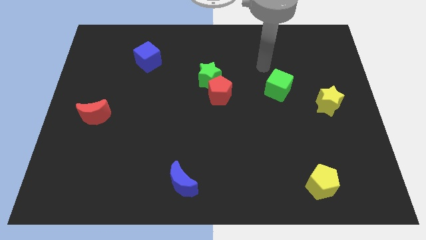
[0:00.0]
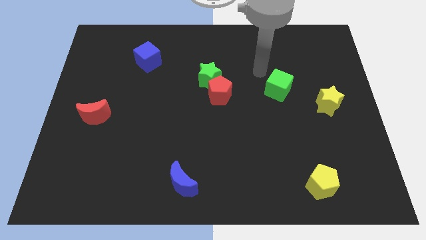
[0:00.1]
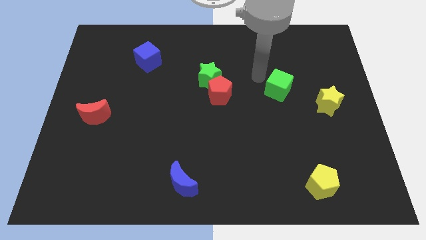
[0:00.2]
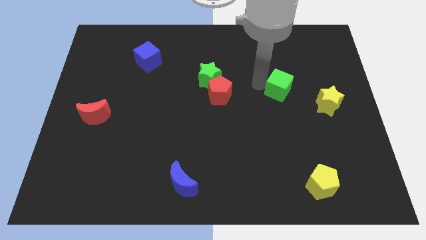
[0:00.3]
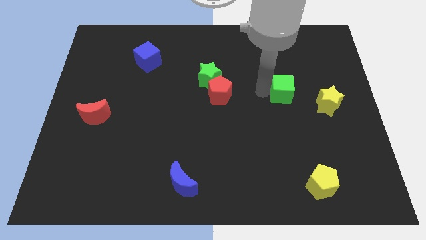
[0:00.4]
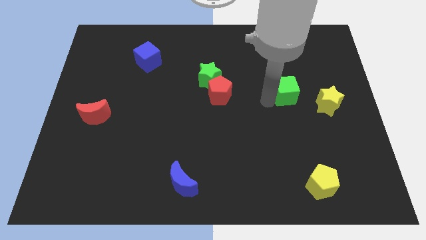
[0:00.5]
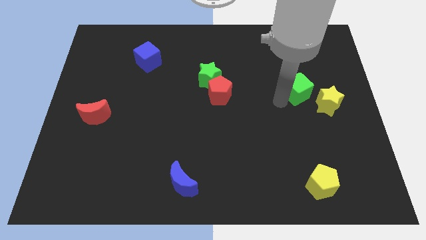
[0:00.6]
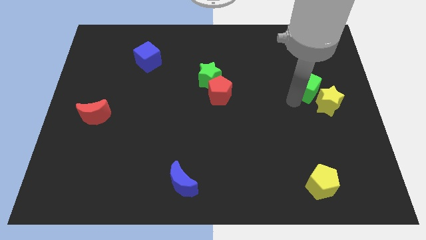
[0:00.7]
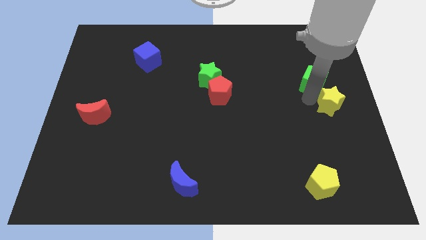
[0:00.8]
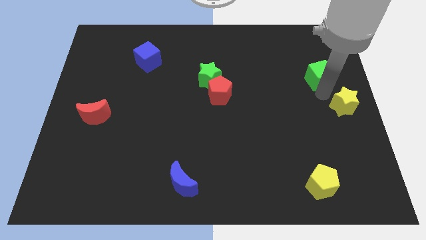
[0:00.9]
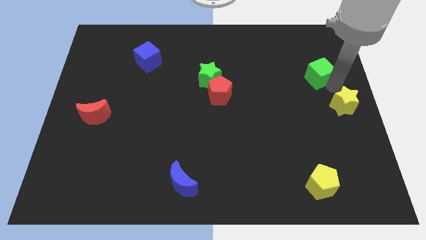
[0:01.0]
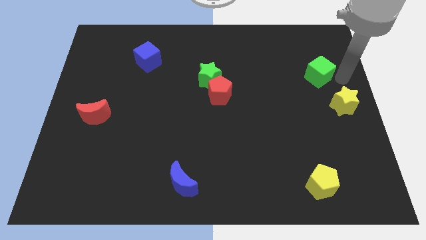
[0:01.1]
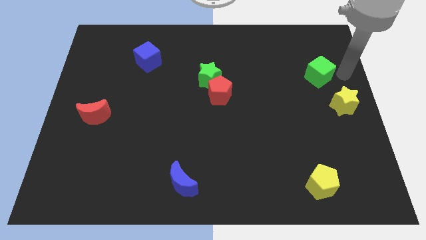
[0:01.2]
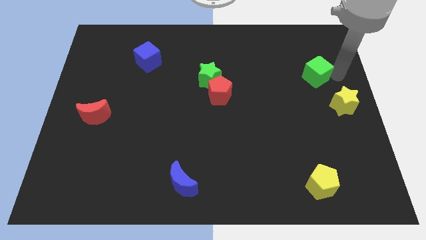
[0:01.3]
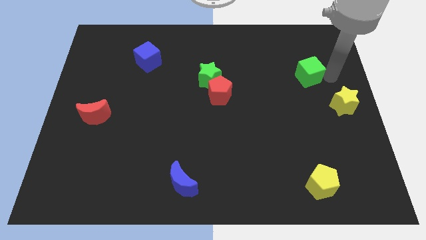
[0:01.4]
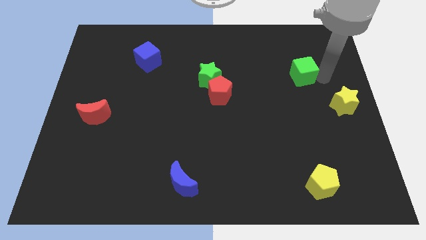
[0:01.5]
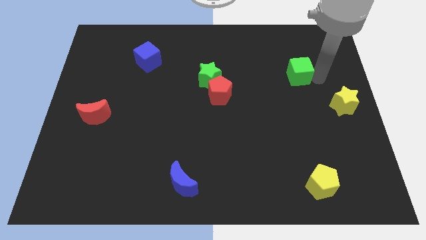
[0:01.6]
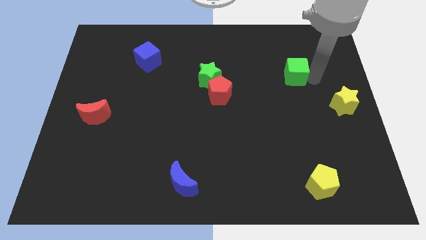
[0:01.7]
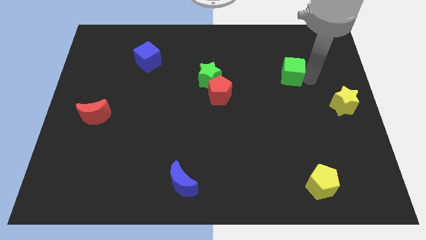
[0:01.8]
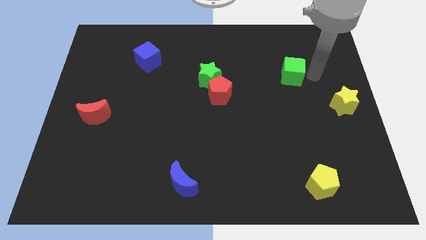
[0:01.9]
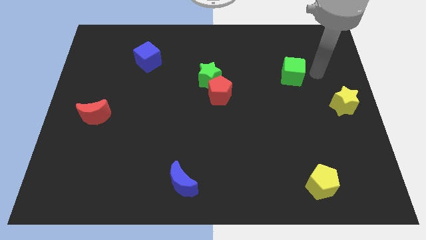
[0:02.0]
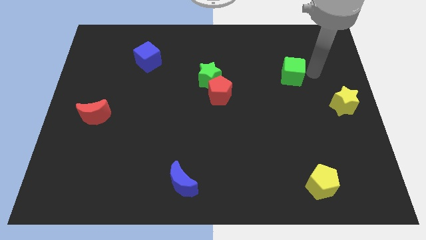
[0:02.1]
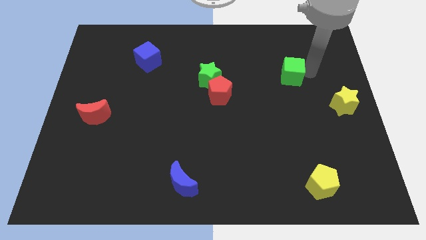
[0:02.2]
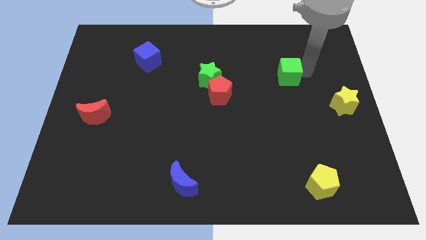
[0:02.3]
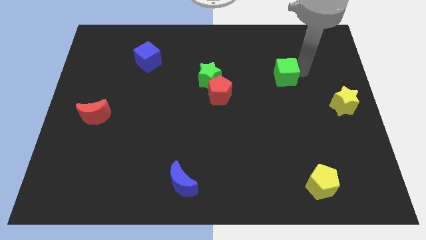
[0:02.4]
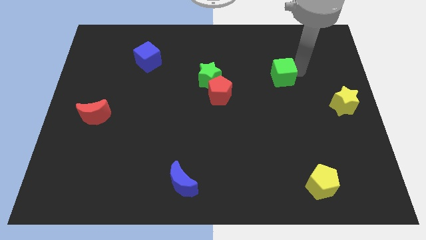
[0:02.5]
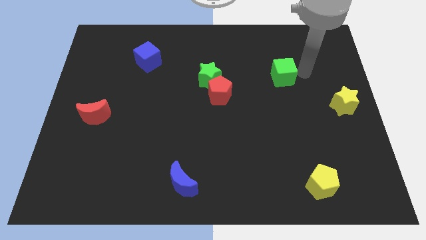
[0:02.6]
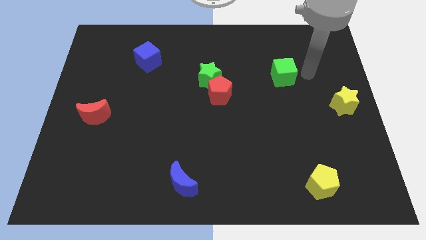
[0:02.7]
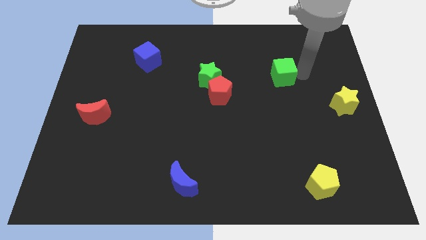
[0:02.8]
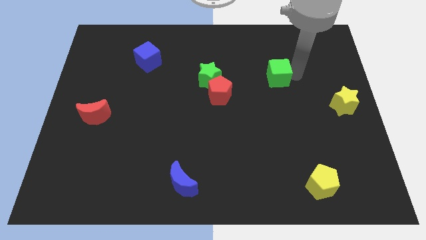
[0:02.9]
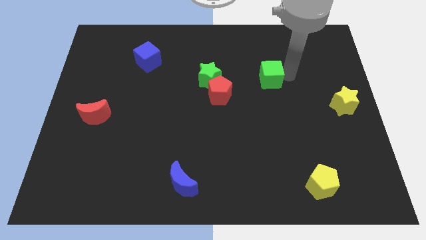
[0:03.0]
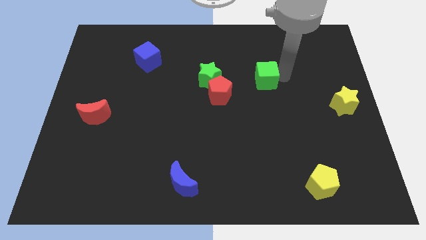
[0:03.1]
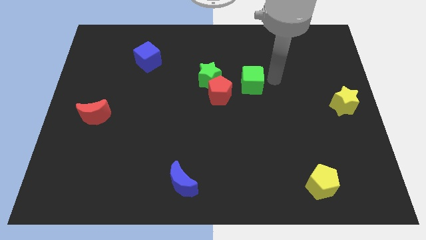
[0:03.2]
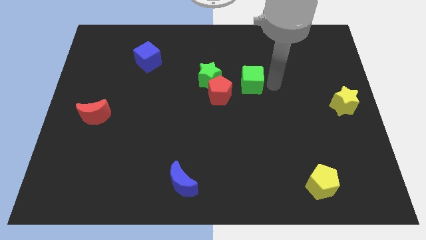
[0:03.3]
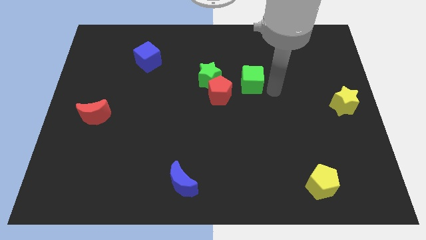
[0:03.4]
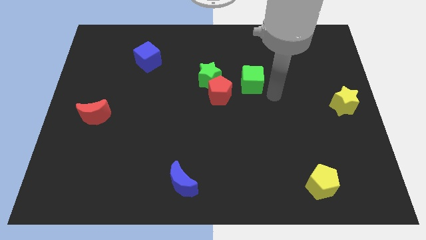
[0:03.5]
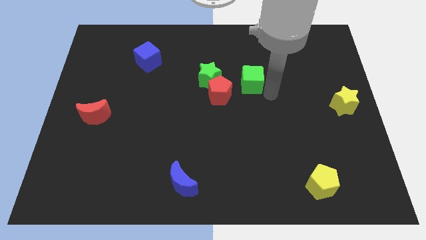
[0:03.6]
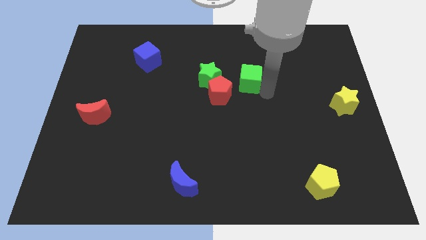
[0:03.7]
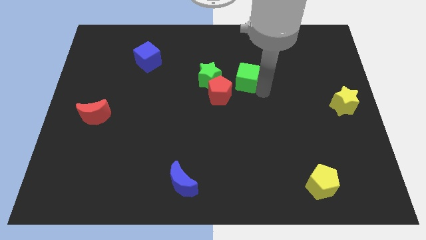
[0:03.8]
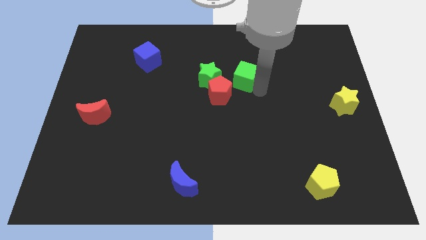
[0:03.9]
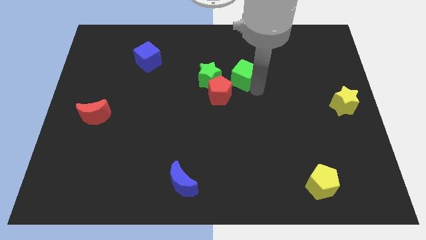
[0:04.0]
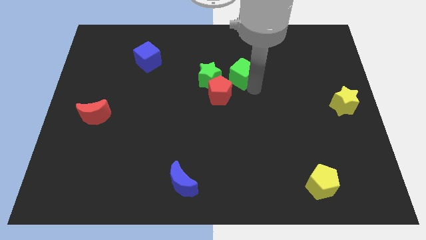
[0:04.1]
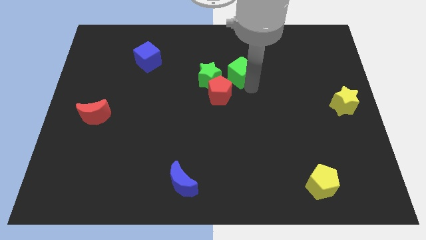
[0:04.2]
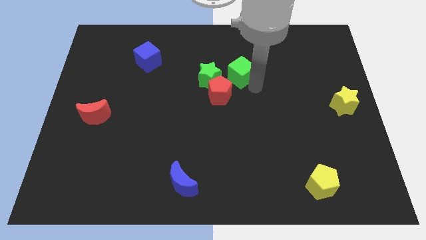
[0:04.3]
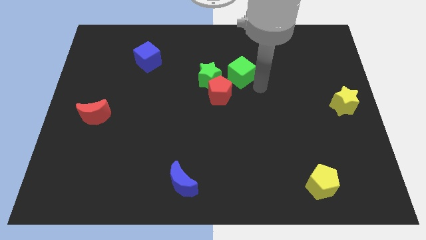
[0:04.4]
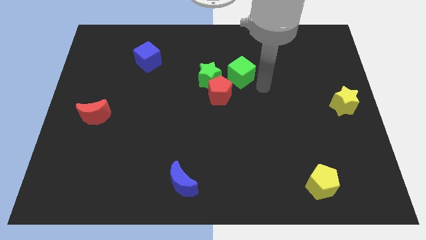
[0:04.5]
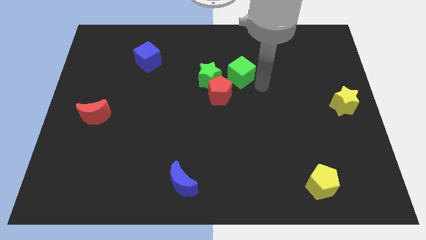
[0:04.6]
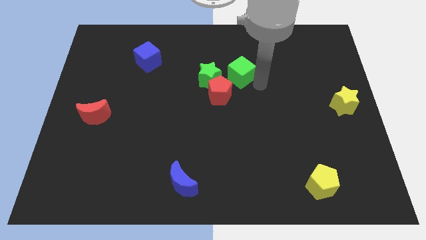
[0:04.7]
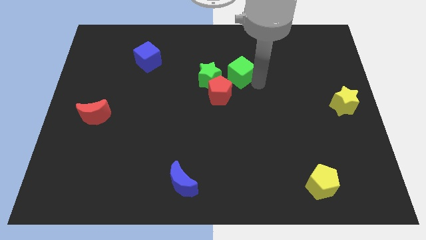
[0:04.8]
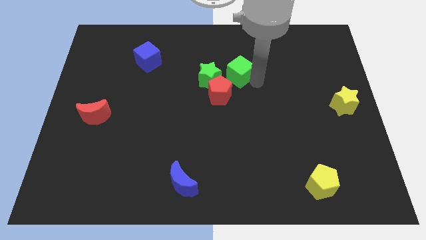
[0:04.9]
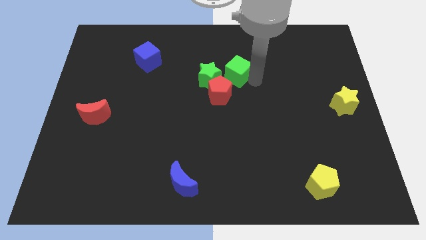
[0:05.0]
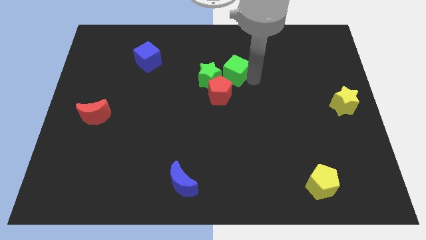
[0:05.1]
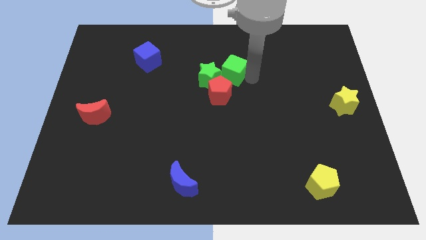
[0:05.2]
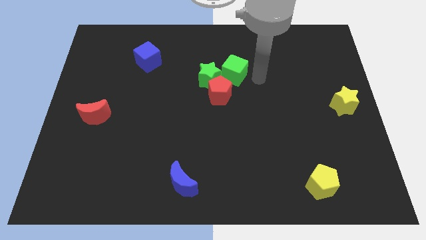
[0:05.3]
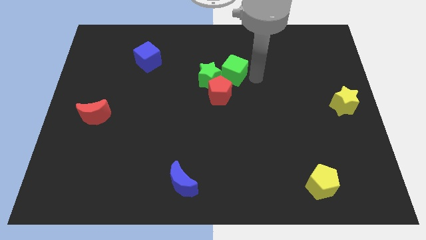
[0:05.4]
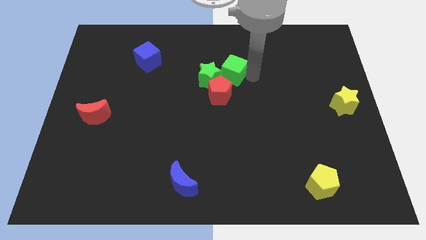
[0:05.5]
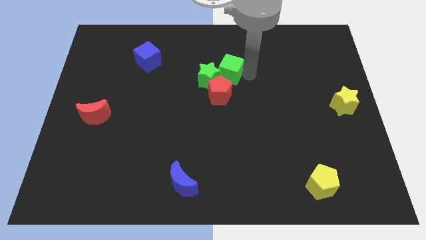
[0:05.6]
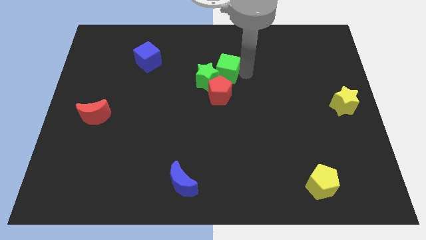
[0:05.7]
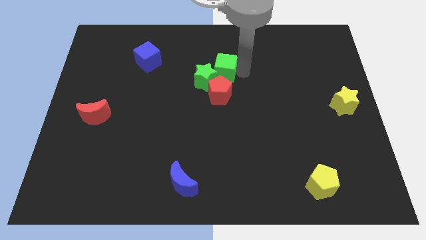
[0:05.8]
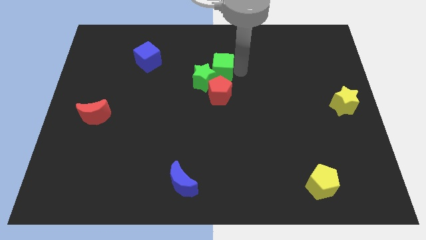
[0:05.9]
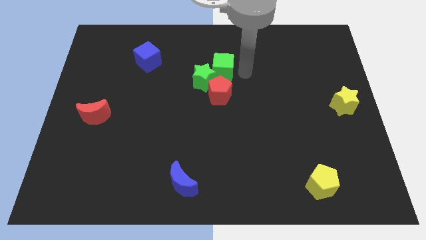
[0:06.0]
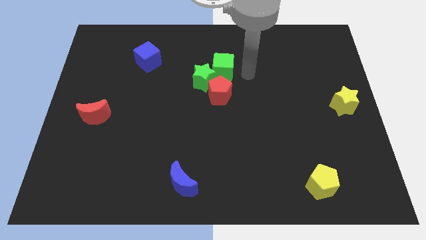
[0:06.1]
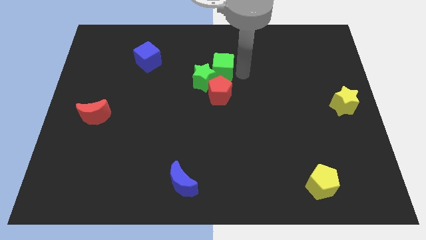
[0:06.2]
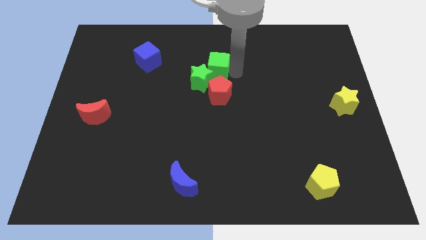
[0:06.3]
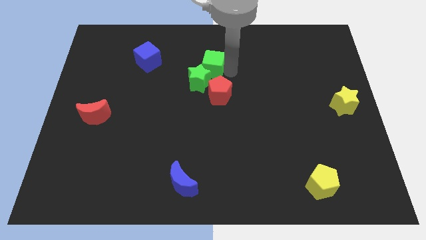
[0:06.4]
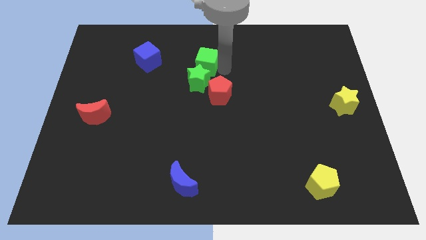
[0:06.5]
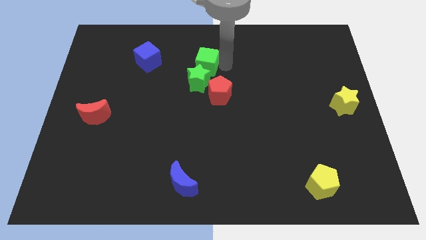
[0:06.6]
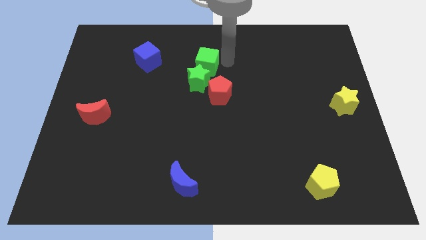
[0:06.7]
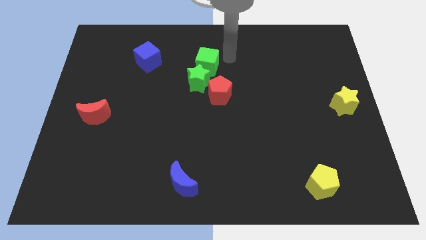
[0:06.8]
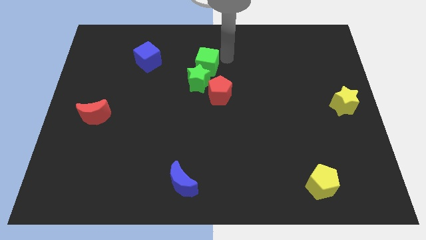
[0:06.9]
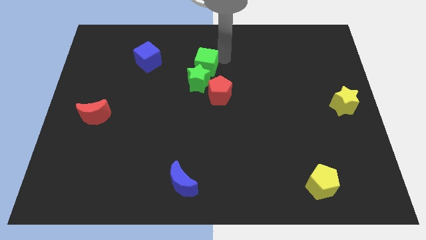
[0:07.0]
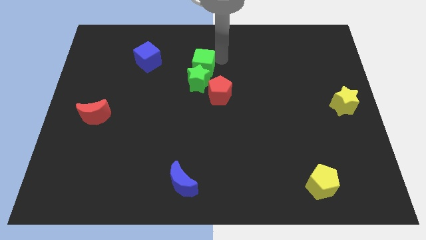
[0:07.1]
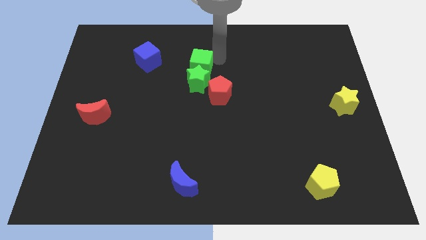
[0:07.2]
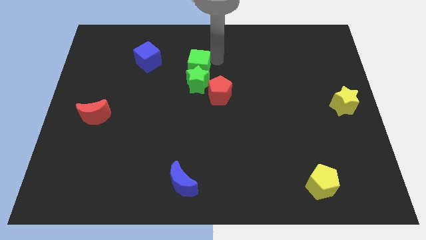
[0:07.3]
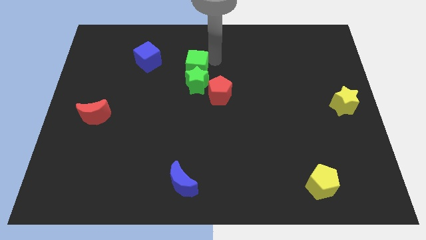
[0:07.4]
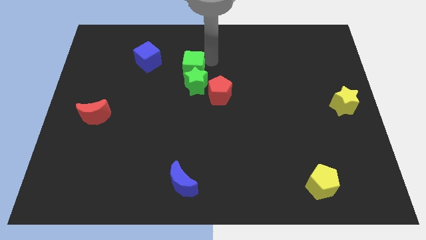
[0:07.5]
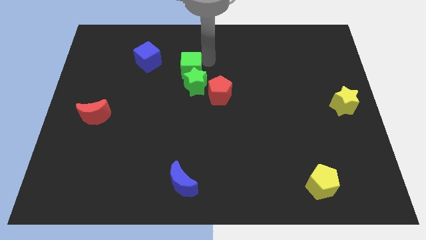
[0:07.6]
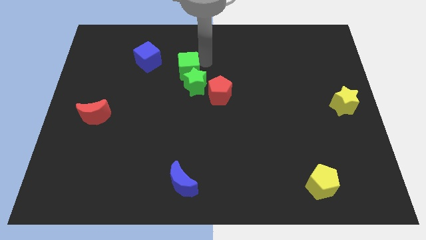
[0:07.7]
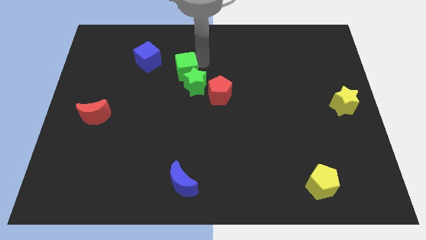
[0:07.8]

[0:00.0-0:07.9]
put the green cube to the bottom right of the blue cube
